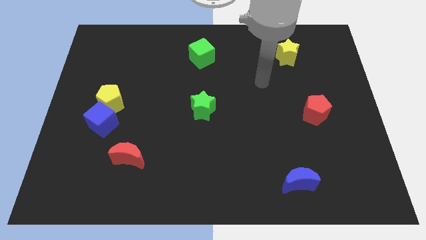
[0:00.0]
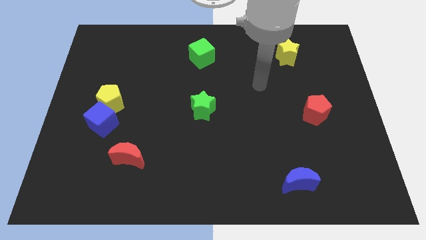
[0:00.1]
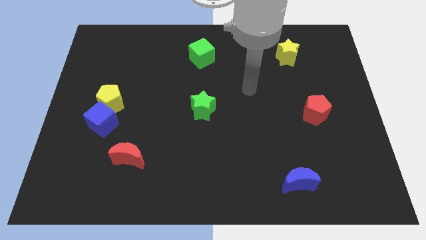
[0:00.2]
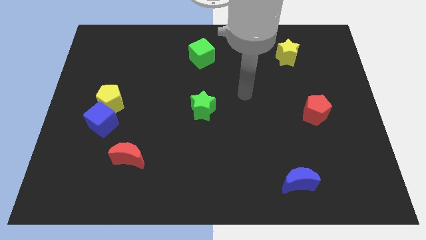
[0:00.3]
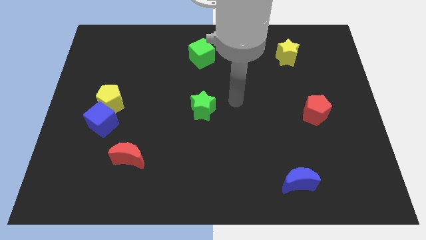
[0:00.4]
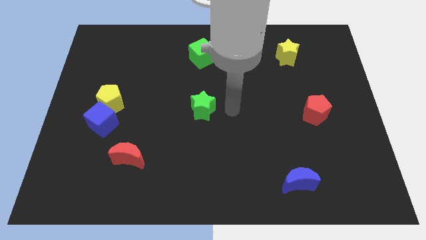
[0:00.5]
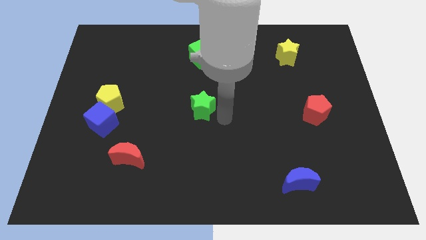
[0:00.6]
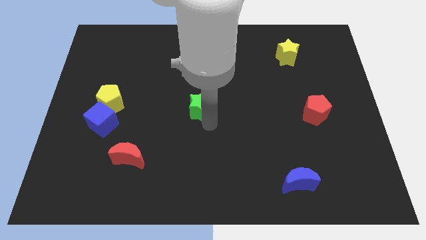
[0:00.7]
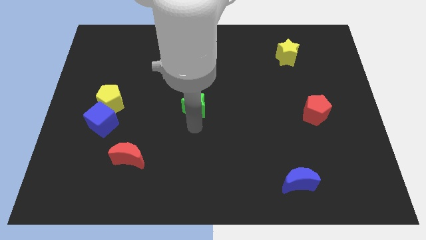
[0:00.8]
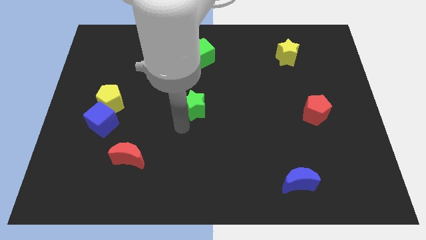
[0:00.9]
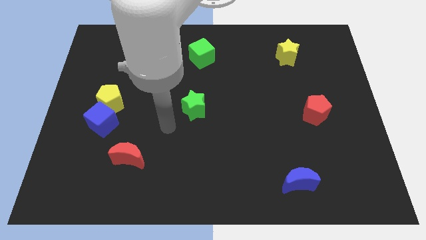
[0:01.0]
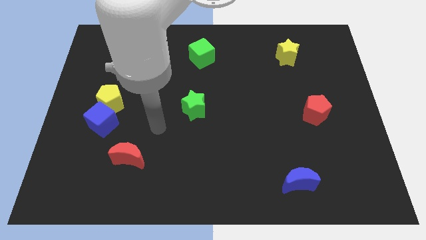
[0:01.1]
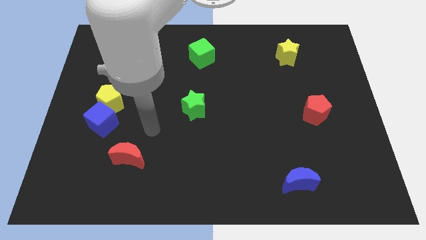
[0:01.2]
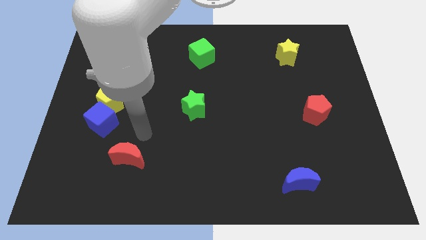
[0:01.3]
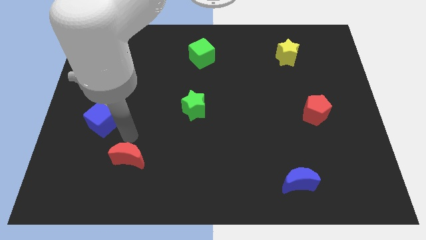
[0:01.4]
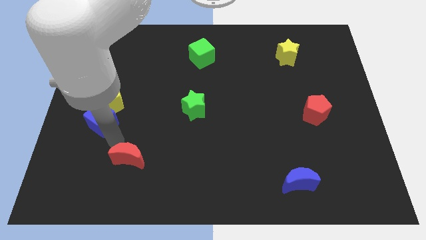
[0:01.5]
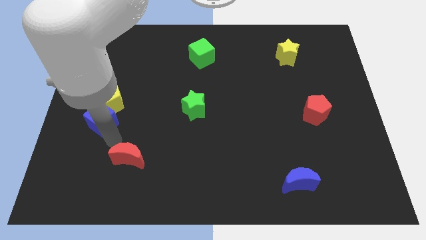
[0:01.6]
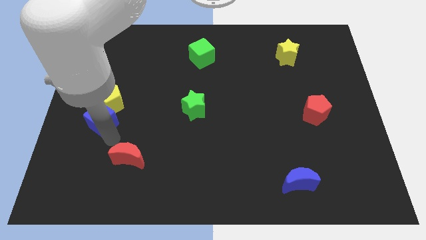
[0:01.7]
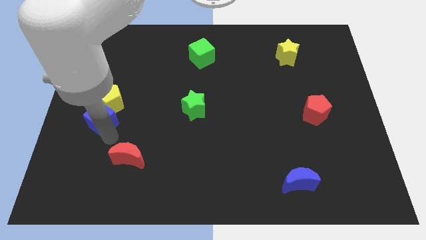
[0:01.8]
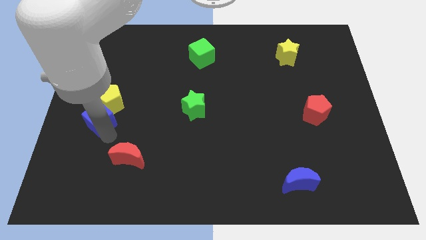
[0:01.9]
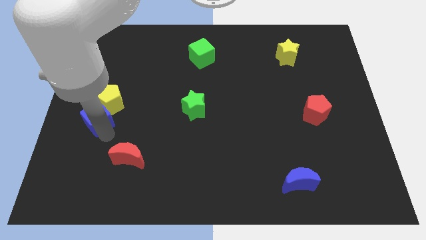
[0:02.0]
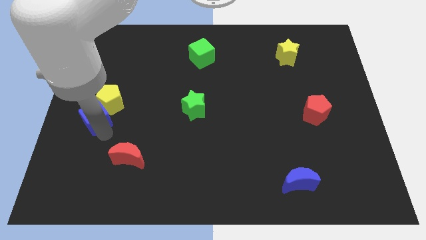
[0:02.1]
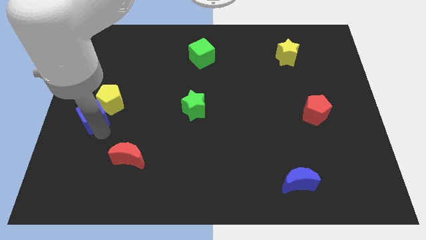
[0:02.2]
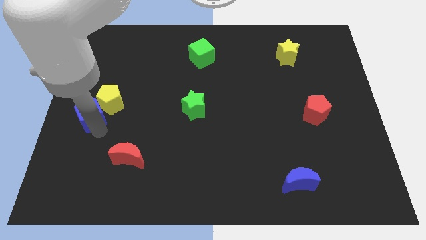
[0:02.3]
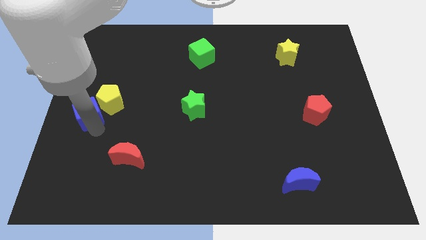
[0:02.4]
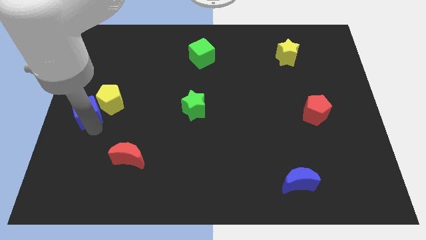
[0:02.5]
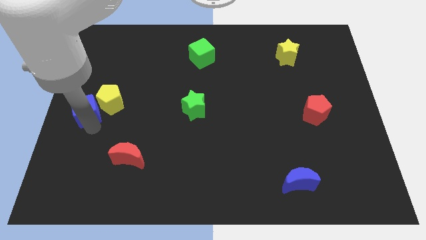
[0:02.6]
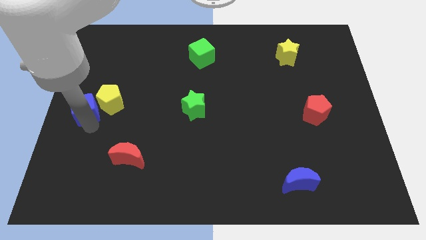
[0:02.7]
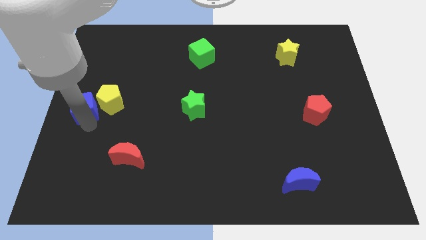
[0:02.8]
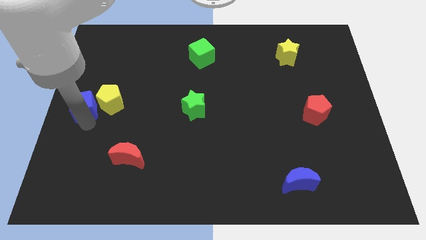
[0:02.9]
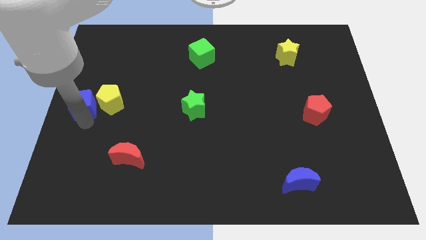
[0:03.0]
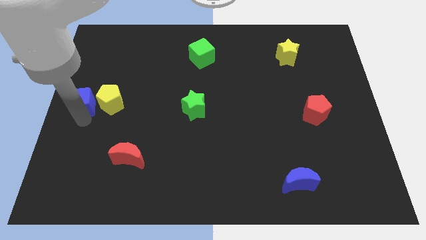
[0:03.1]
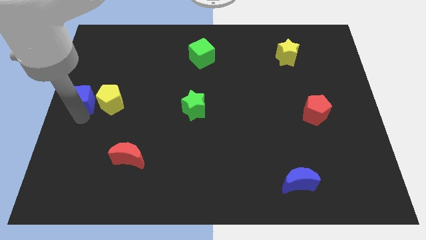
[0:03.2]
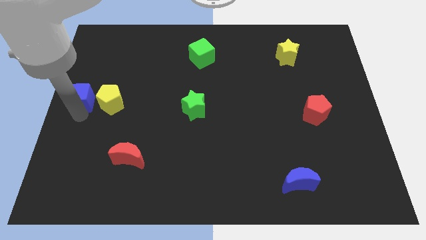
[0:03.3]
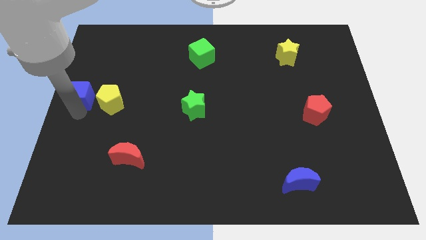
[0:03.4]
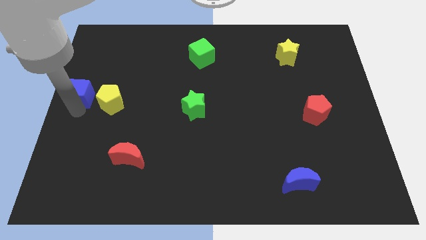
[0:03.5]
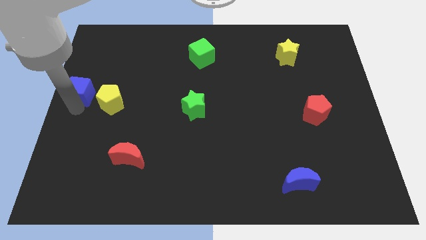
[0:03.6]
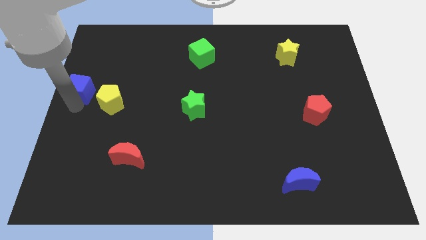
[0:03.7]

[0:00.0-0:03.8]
push the blue cube slightly upwards

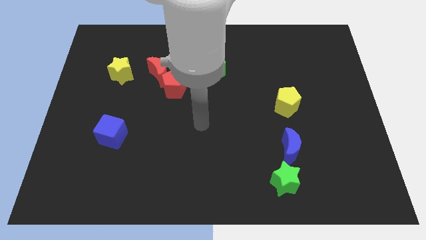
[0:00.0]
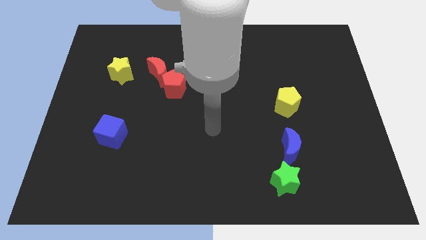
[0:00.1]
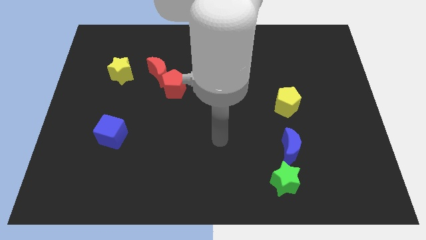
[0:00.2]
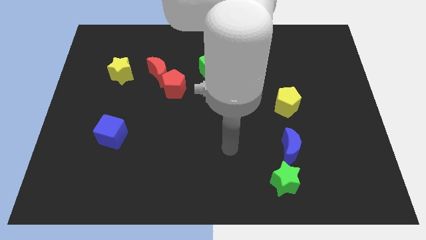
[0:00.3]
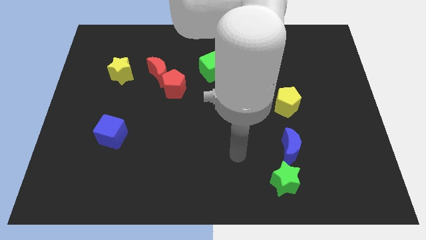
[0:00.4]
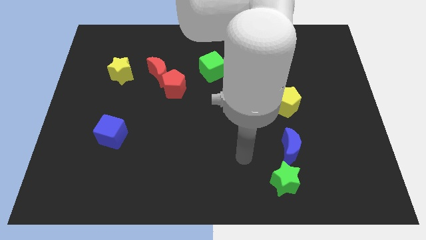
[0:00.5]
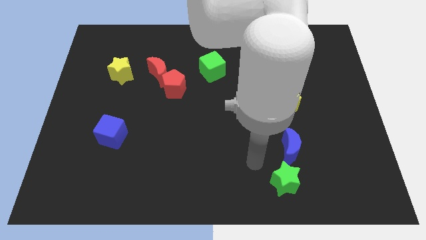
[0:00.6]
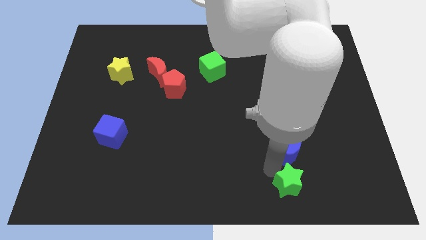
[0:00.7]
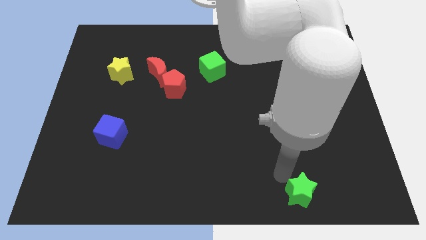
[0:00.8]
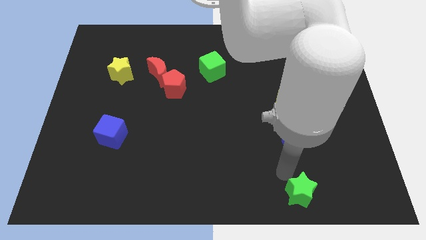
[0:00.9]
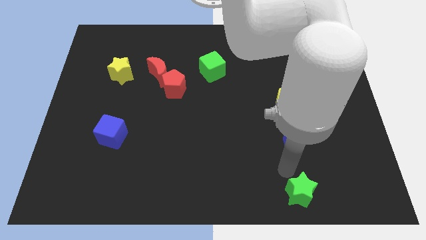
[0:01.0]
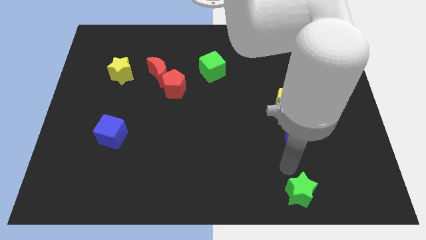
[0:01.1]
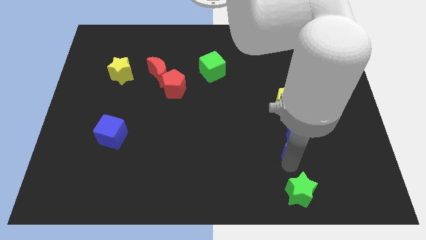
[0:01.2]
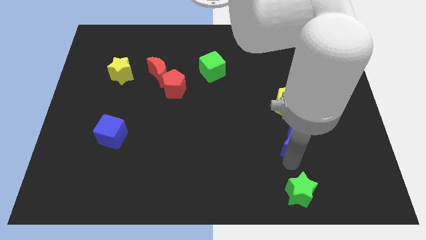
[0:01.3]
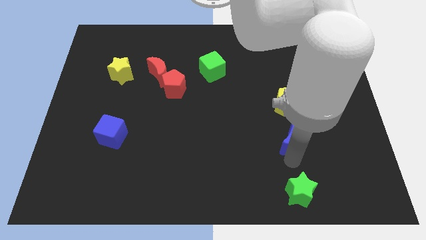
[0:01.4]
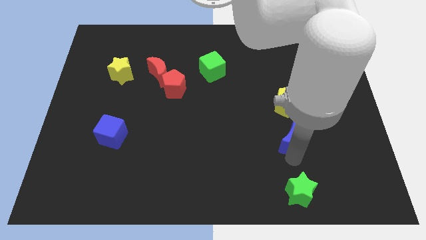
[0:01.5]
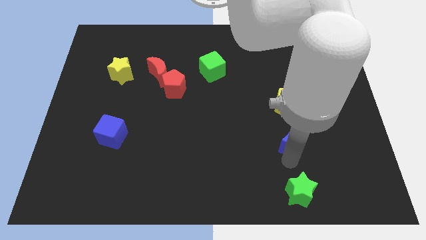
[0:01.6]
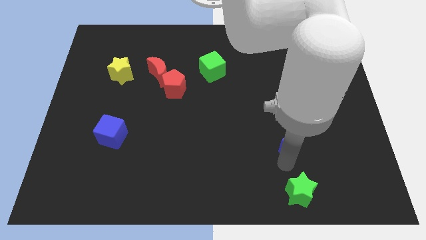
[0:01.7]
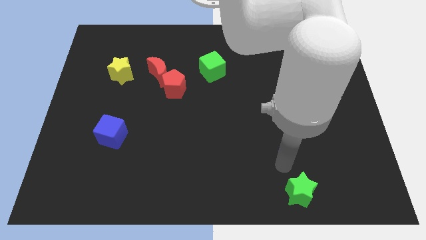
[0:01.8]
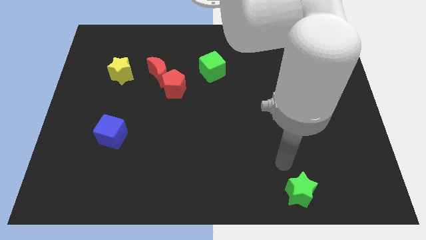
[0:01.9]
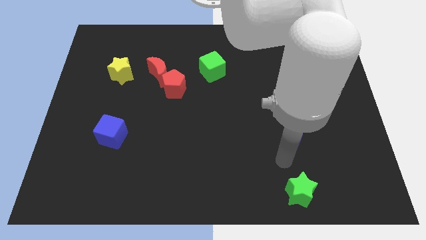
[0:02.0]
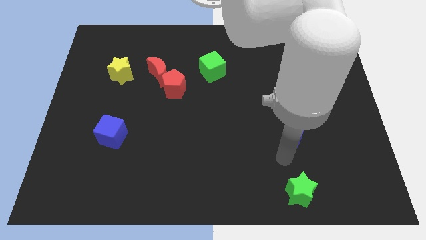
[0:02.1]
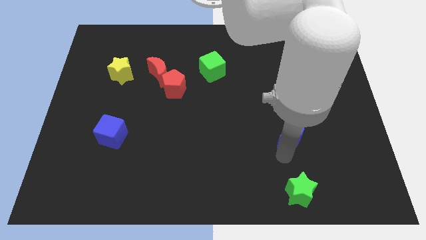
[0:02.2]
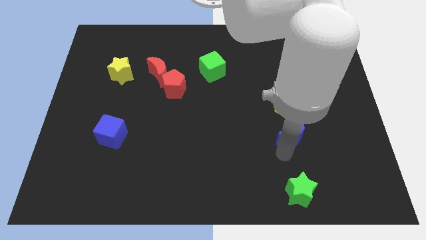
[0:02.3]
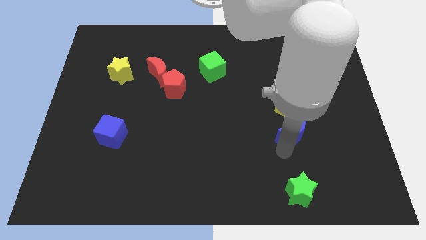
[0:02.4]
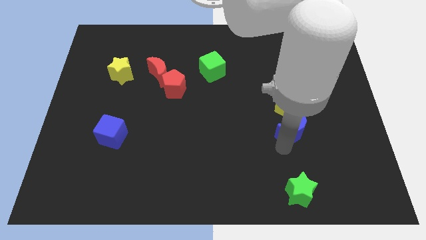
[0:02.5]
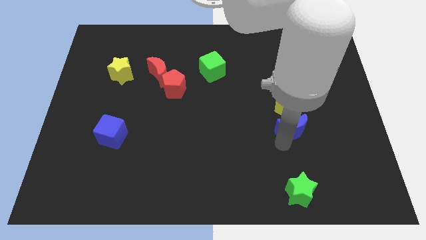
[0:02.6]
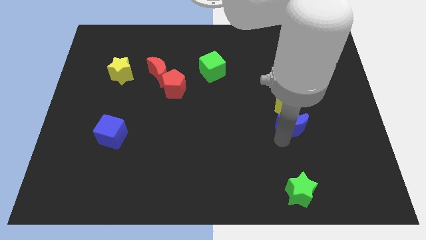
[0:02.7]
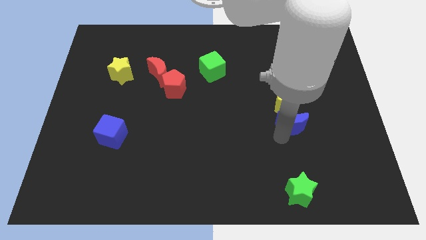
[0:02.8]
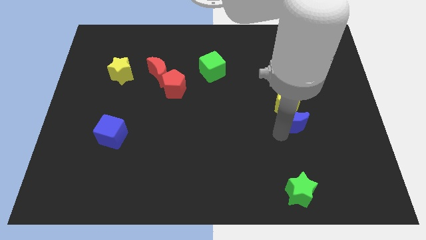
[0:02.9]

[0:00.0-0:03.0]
move the blue moon a bit up

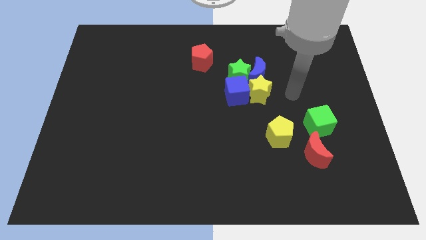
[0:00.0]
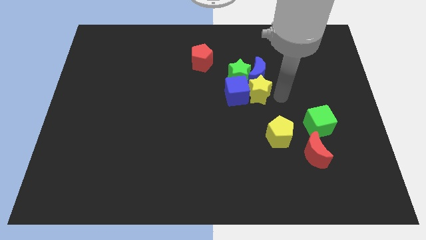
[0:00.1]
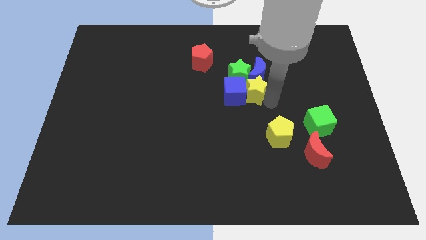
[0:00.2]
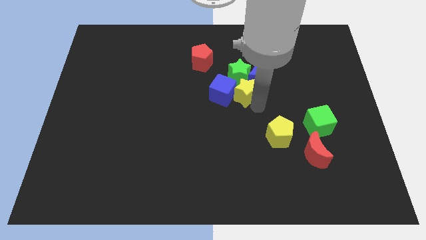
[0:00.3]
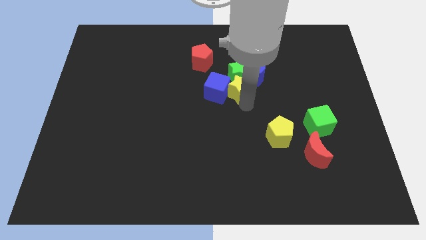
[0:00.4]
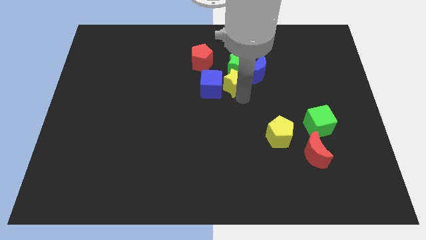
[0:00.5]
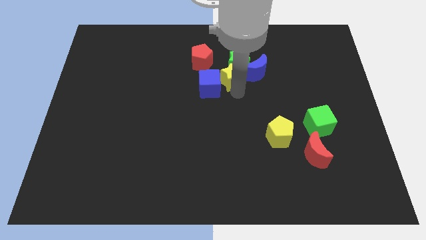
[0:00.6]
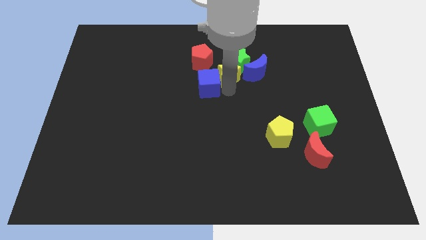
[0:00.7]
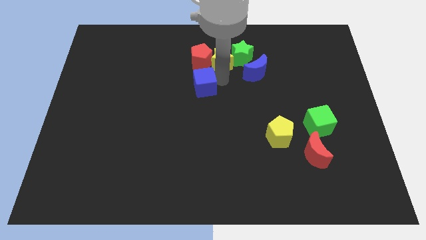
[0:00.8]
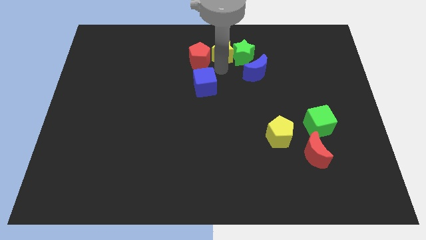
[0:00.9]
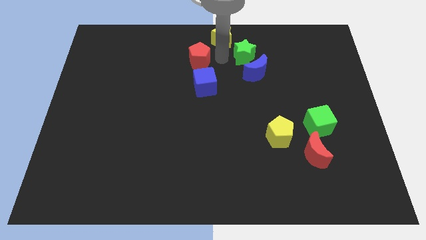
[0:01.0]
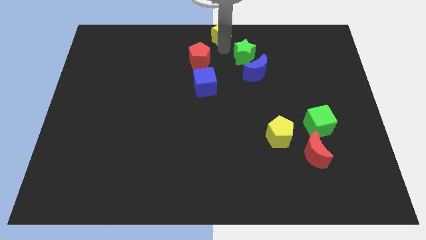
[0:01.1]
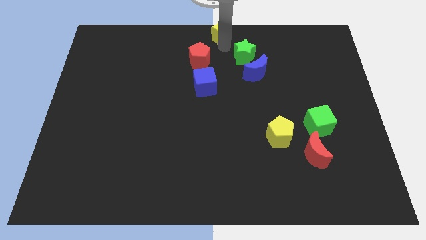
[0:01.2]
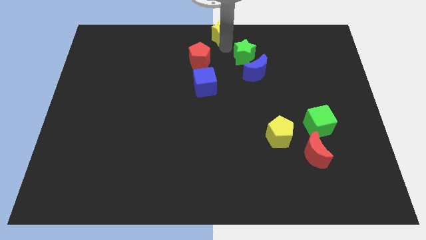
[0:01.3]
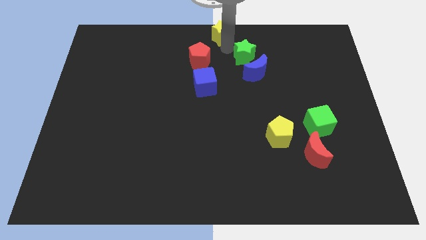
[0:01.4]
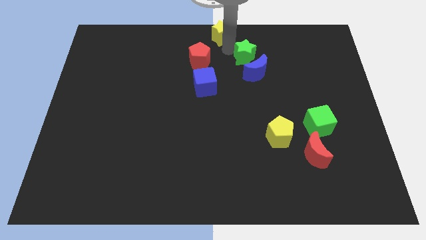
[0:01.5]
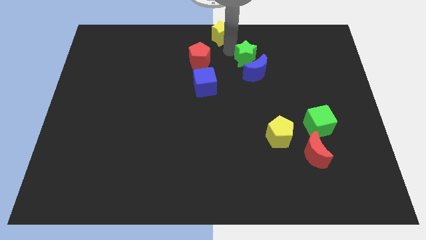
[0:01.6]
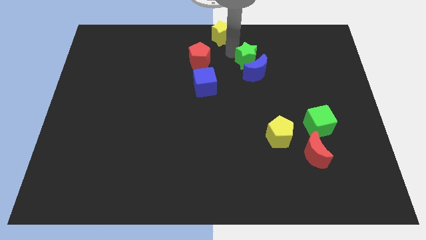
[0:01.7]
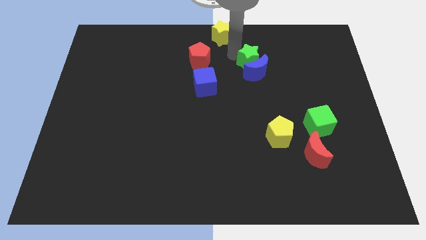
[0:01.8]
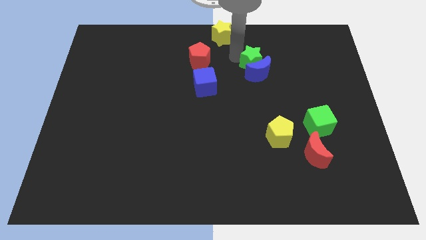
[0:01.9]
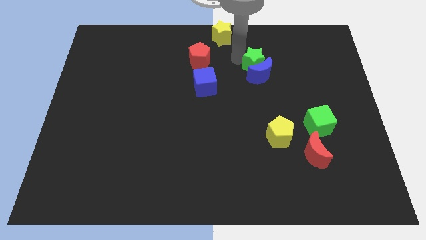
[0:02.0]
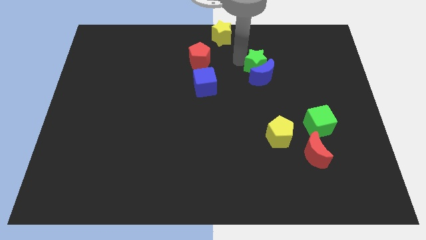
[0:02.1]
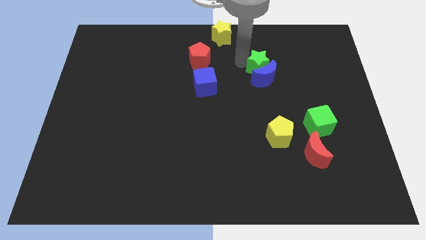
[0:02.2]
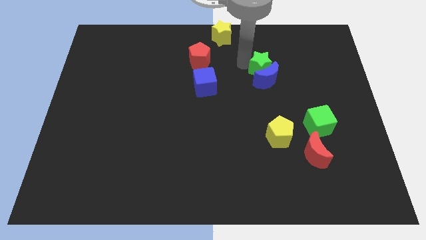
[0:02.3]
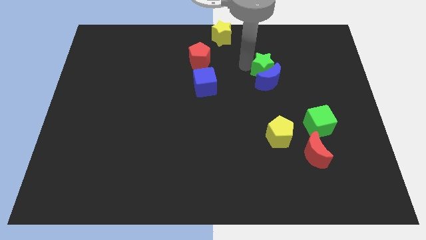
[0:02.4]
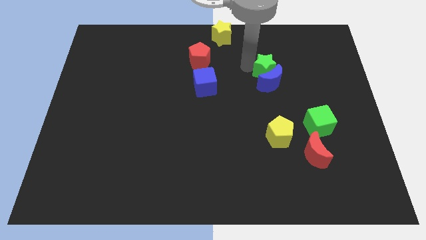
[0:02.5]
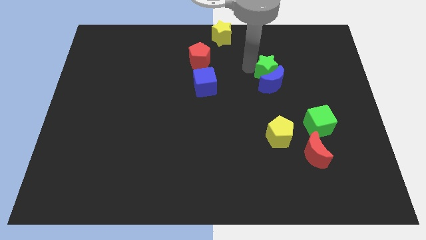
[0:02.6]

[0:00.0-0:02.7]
slide the green star slightly to the right
